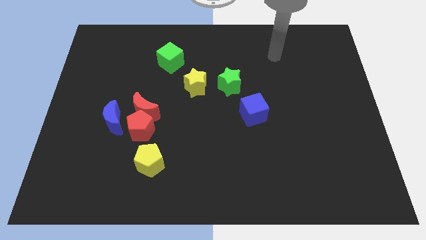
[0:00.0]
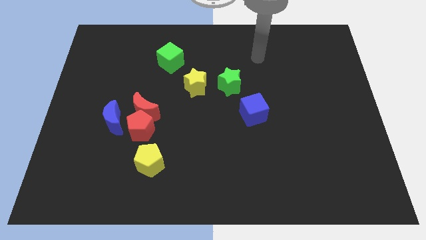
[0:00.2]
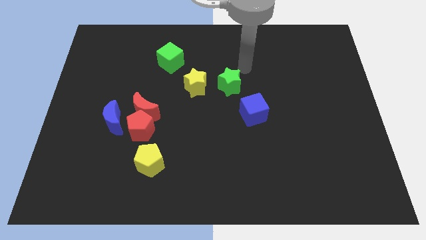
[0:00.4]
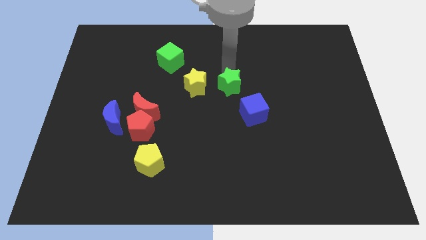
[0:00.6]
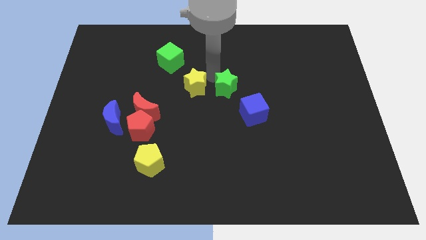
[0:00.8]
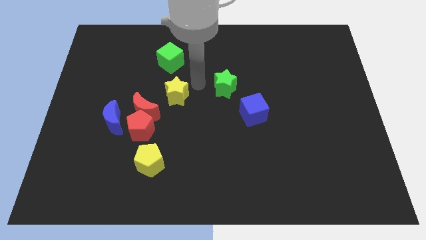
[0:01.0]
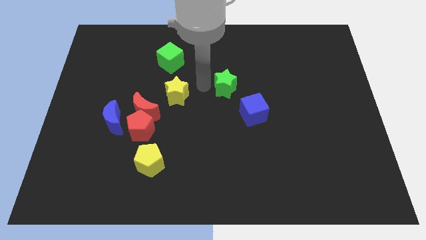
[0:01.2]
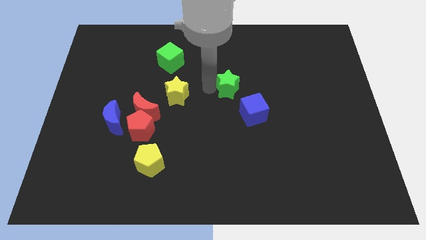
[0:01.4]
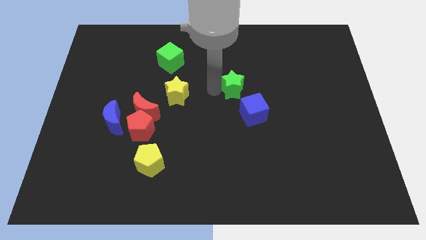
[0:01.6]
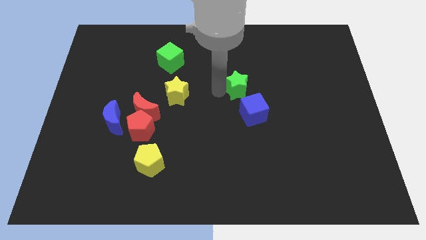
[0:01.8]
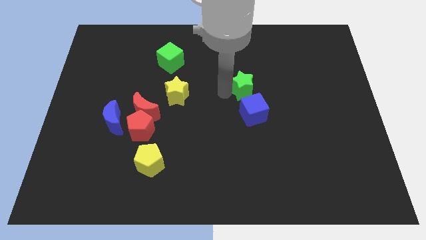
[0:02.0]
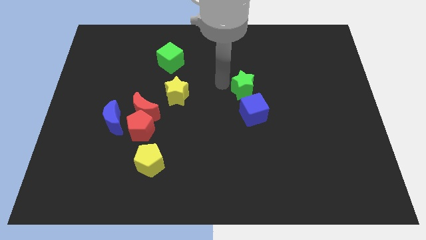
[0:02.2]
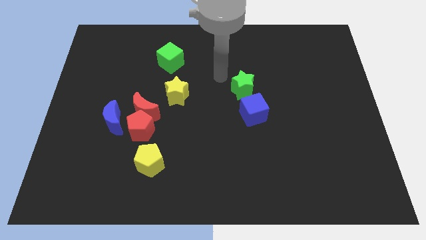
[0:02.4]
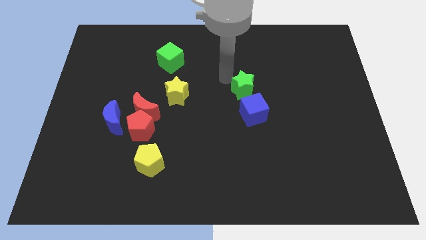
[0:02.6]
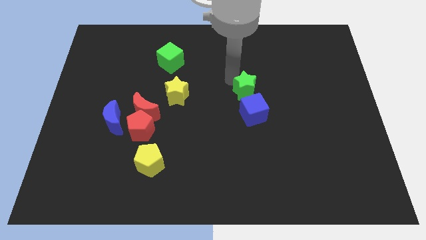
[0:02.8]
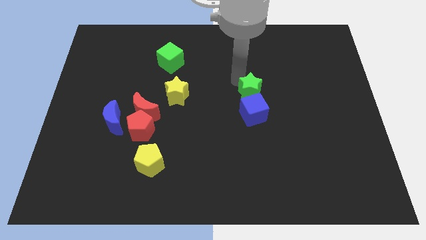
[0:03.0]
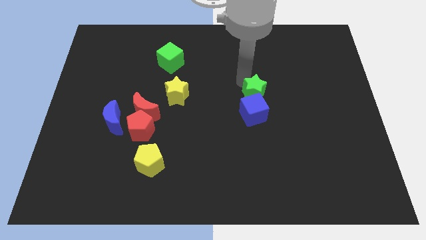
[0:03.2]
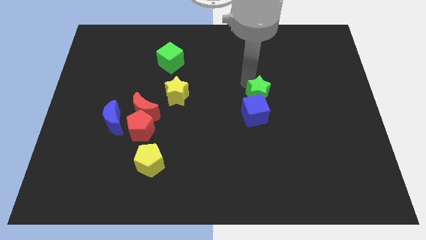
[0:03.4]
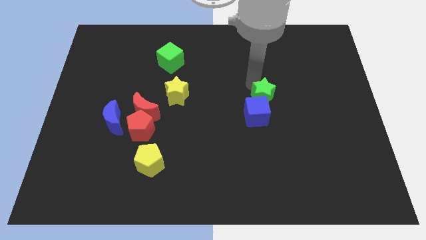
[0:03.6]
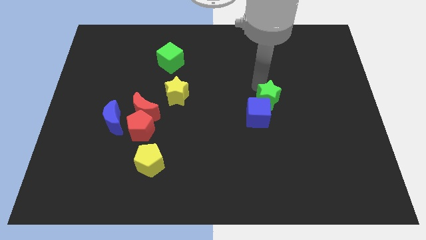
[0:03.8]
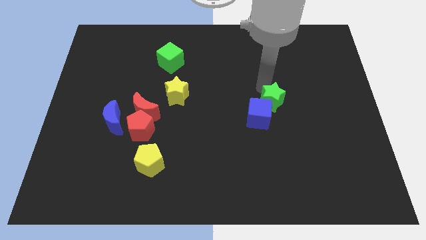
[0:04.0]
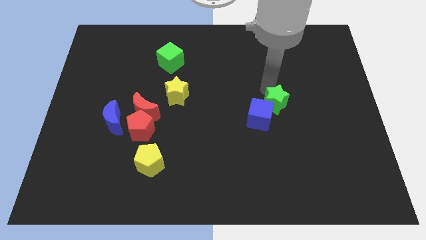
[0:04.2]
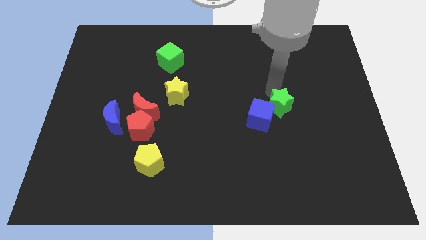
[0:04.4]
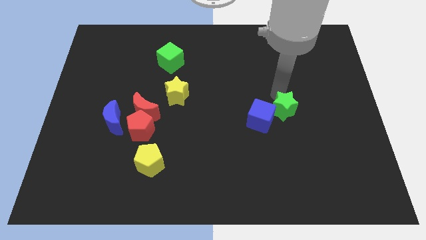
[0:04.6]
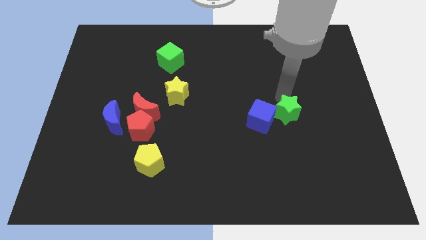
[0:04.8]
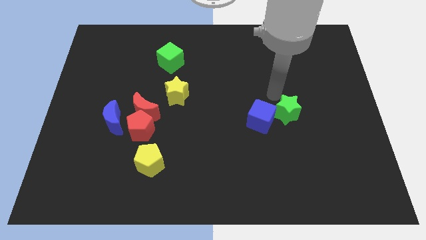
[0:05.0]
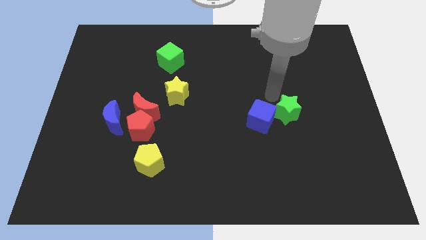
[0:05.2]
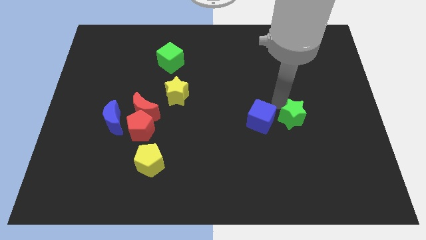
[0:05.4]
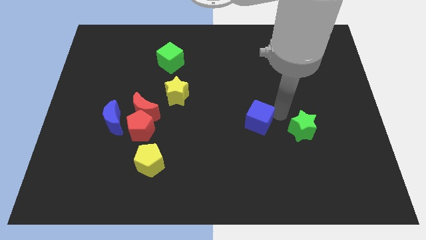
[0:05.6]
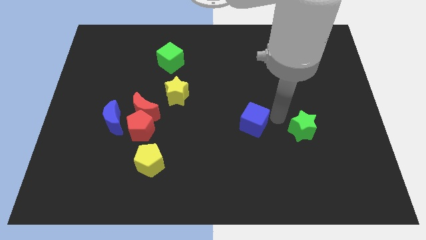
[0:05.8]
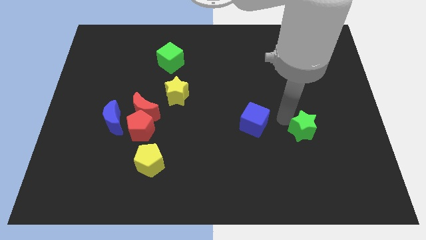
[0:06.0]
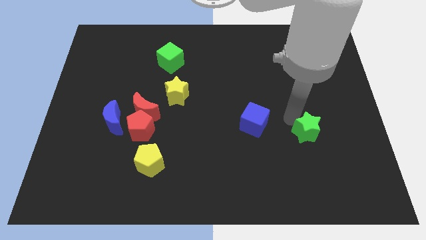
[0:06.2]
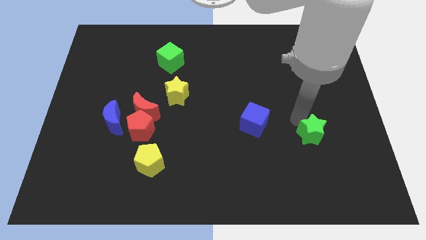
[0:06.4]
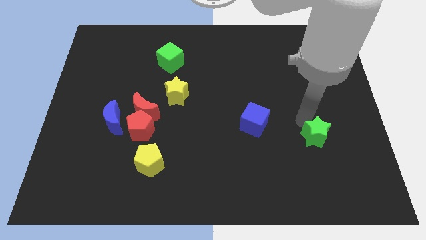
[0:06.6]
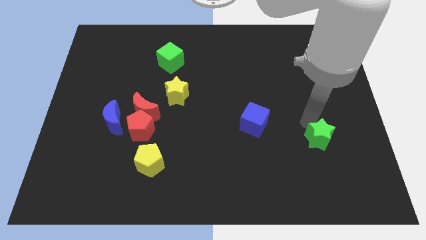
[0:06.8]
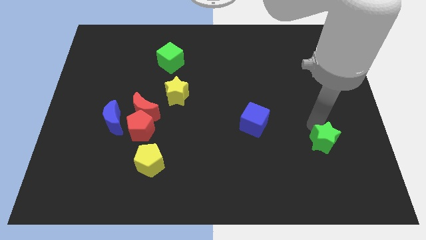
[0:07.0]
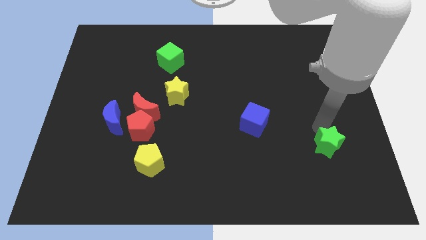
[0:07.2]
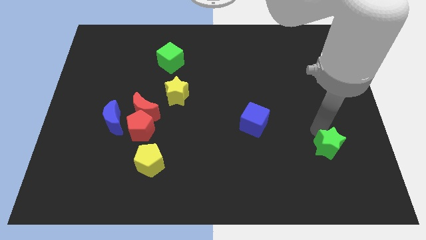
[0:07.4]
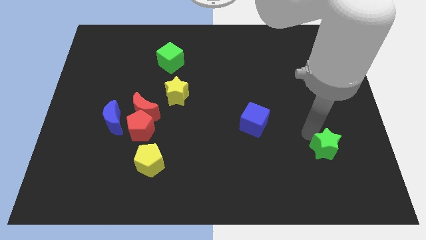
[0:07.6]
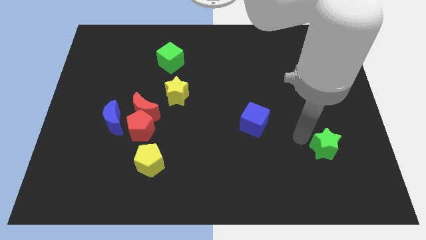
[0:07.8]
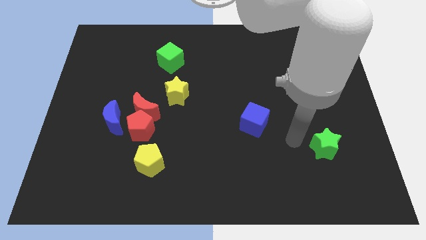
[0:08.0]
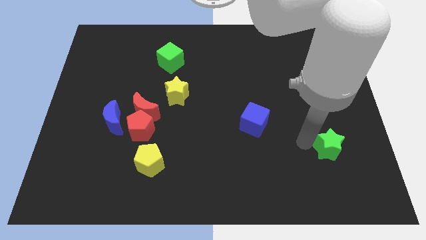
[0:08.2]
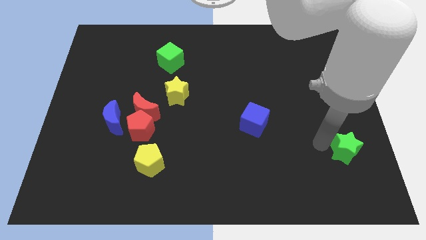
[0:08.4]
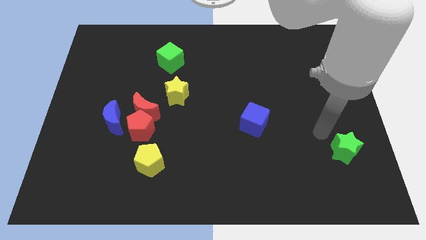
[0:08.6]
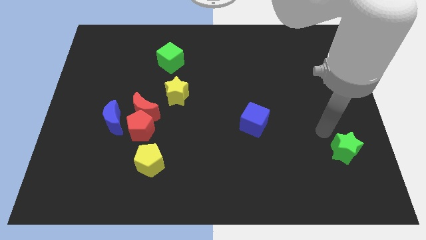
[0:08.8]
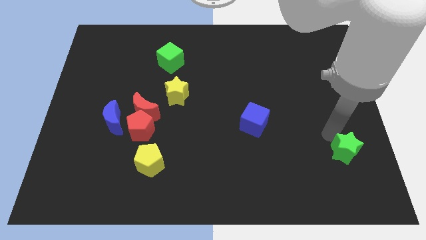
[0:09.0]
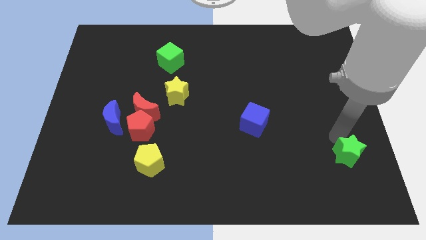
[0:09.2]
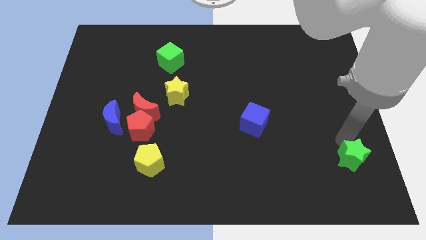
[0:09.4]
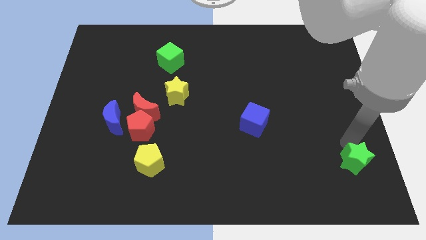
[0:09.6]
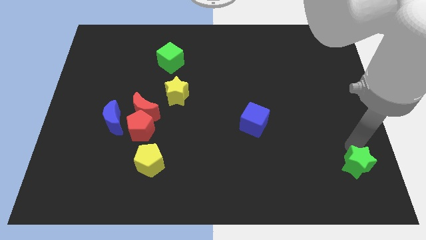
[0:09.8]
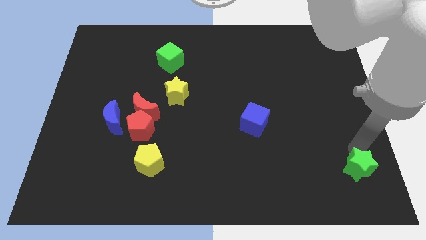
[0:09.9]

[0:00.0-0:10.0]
move the green star to the lower right corner
